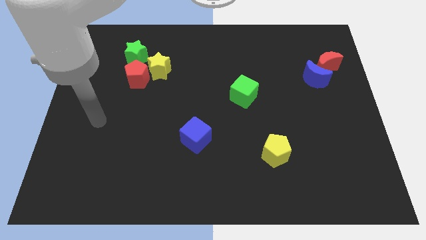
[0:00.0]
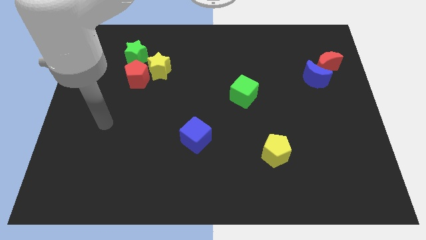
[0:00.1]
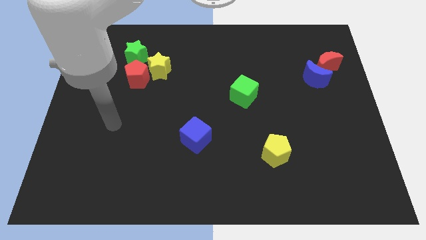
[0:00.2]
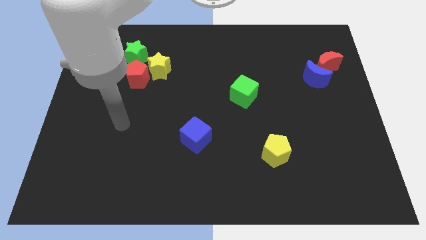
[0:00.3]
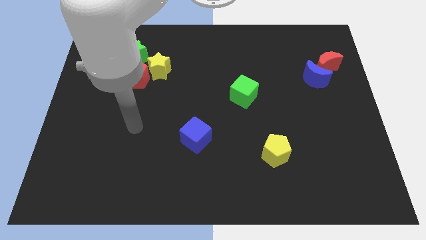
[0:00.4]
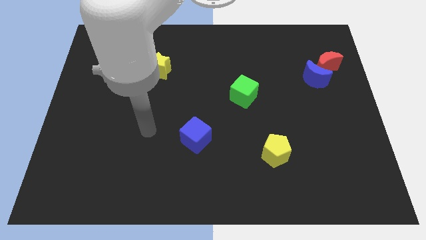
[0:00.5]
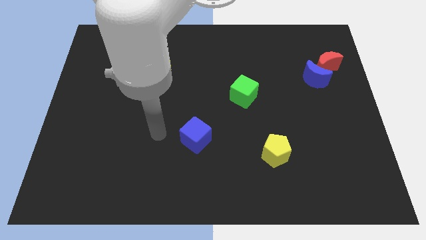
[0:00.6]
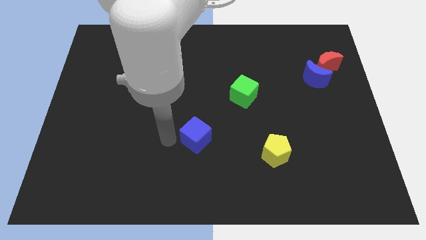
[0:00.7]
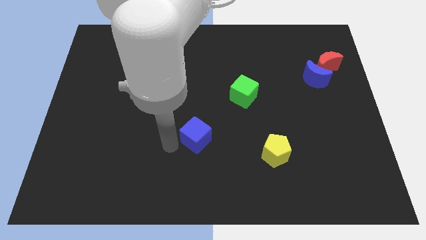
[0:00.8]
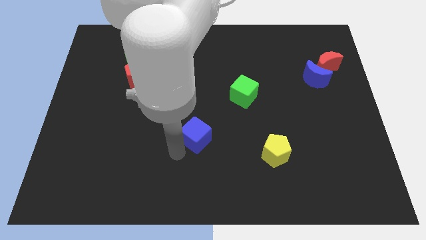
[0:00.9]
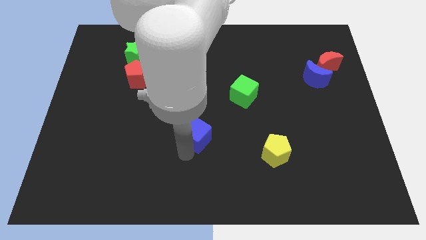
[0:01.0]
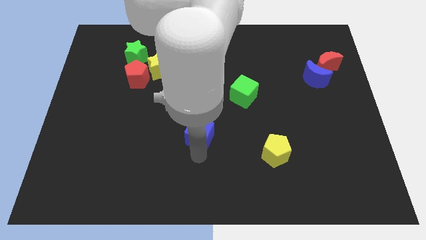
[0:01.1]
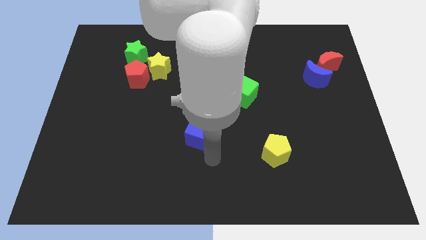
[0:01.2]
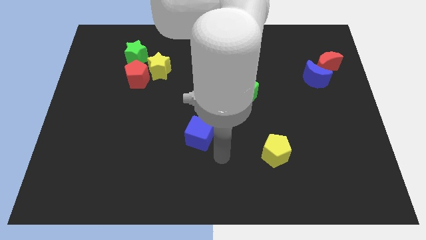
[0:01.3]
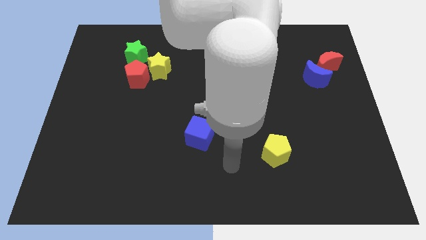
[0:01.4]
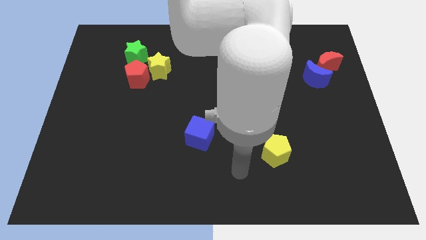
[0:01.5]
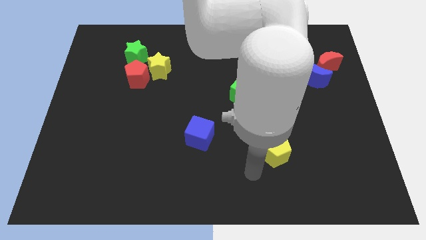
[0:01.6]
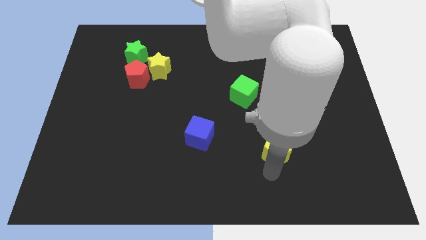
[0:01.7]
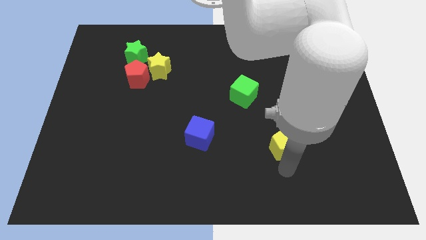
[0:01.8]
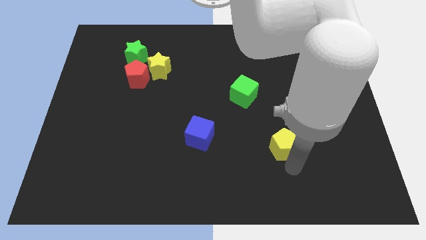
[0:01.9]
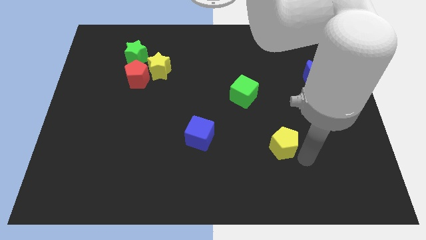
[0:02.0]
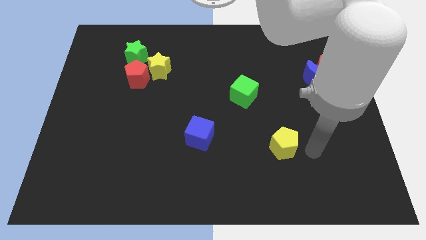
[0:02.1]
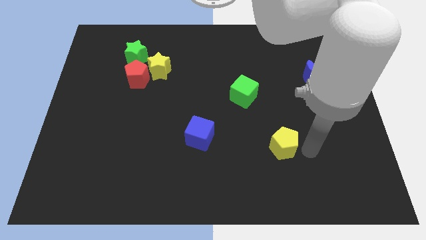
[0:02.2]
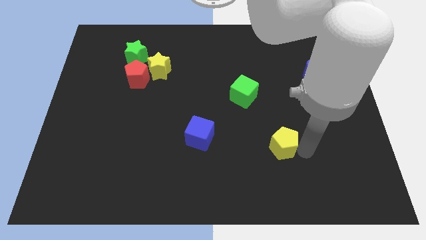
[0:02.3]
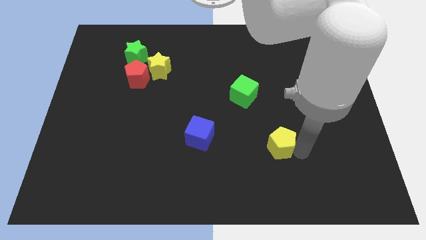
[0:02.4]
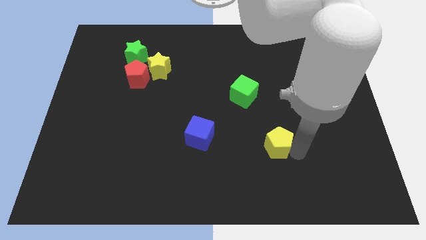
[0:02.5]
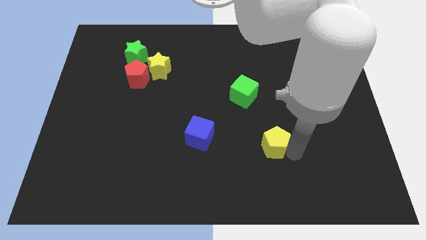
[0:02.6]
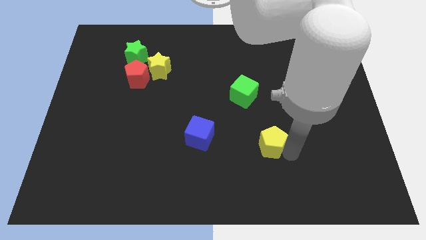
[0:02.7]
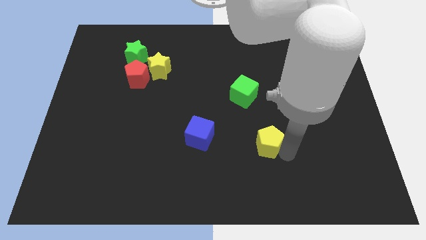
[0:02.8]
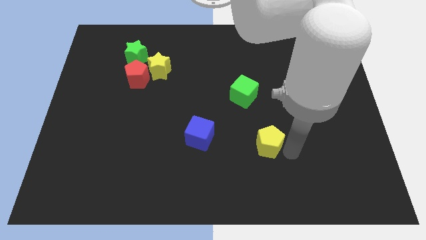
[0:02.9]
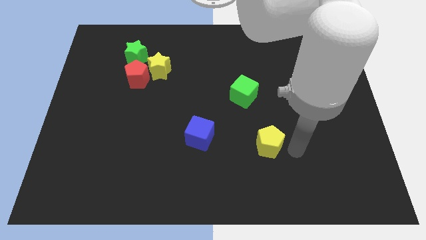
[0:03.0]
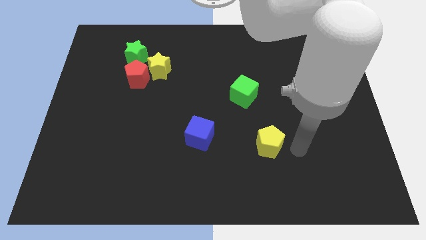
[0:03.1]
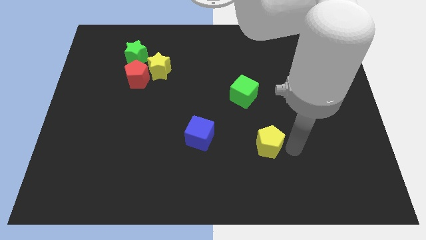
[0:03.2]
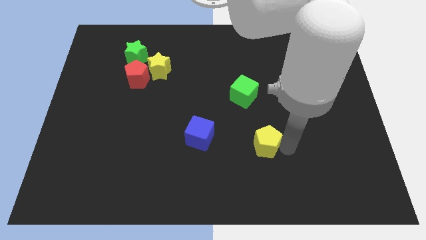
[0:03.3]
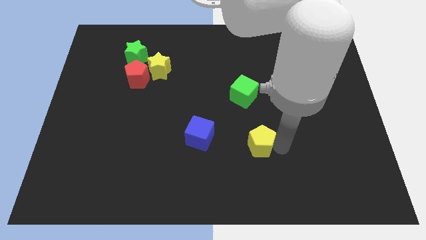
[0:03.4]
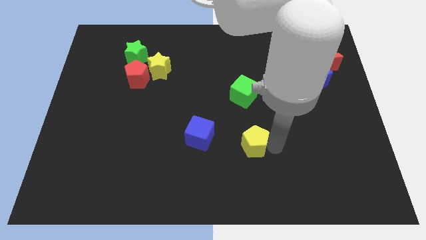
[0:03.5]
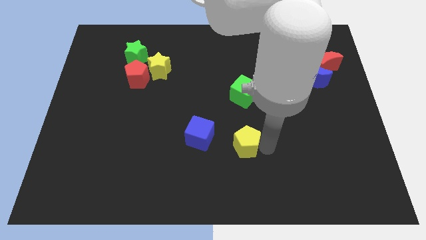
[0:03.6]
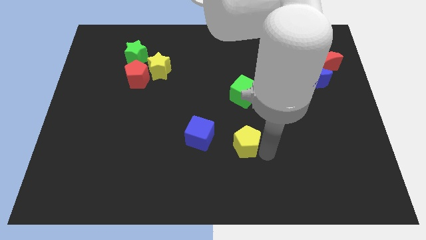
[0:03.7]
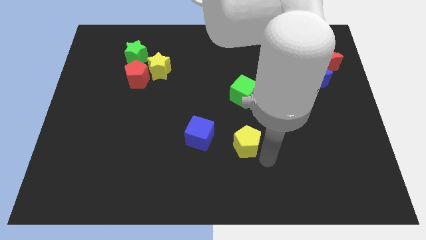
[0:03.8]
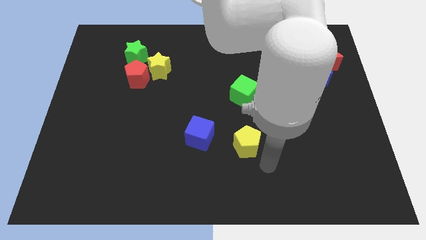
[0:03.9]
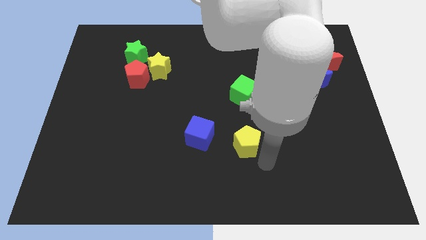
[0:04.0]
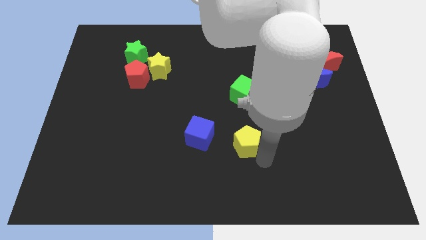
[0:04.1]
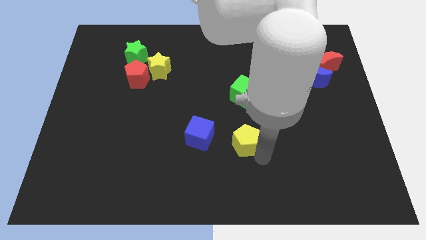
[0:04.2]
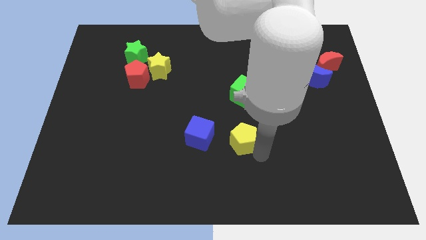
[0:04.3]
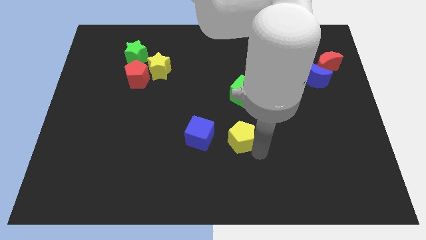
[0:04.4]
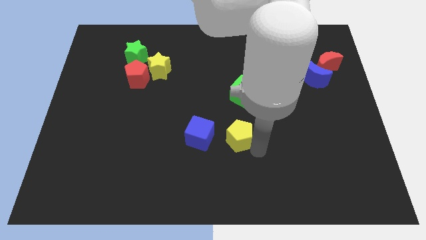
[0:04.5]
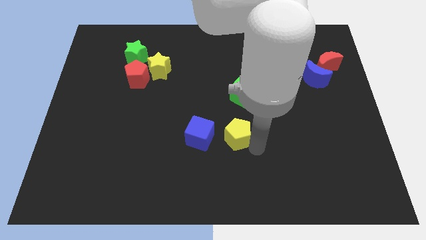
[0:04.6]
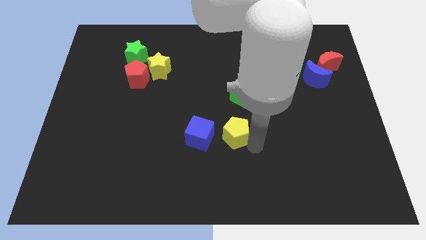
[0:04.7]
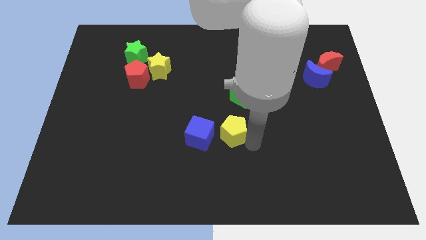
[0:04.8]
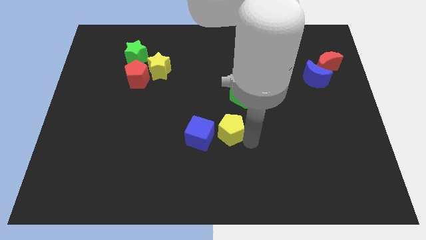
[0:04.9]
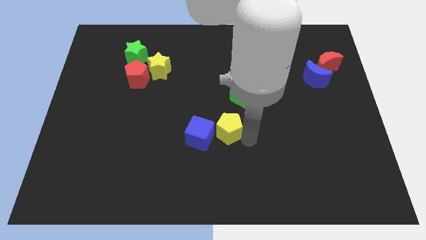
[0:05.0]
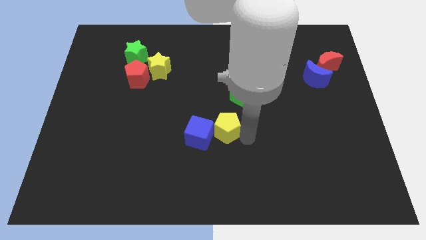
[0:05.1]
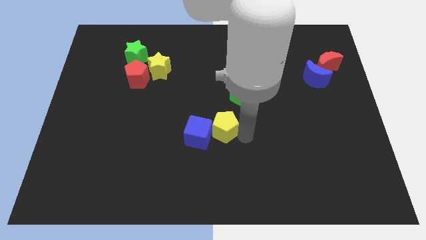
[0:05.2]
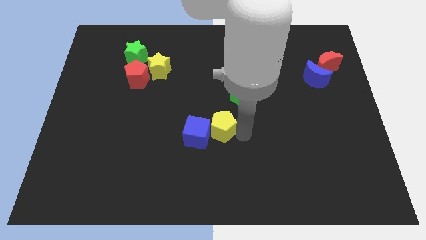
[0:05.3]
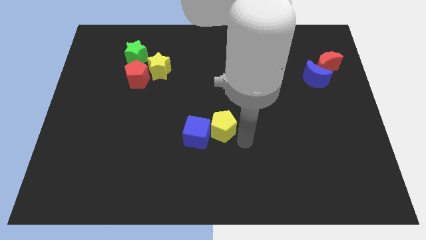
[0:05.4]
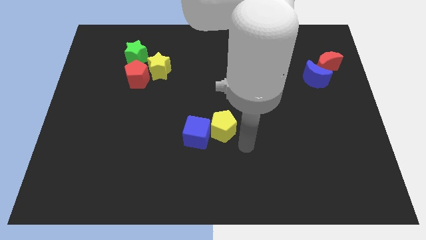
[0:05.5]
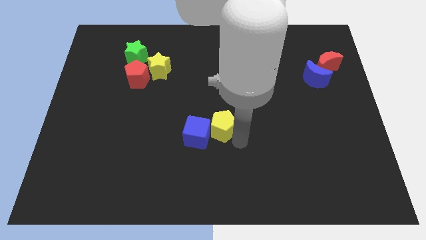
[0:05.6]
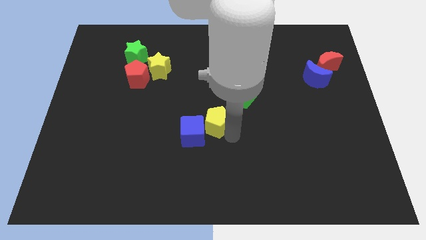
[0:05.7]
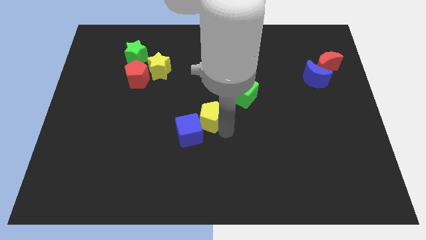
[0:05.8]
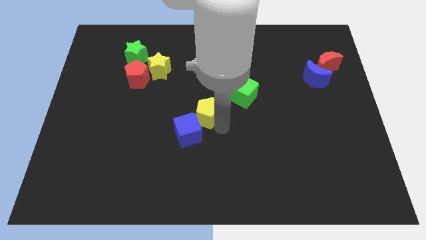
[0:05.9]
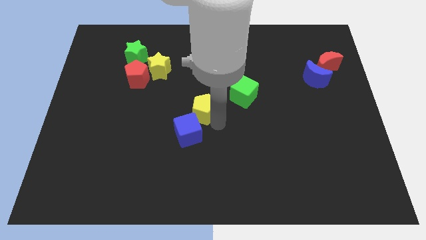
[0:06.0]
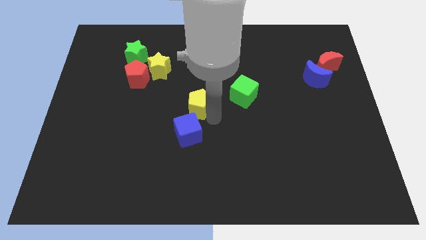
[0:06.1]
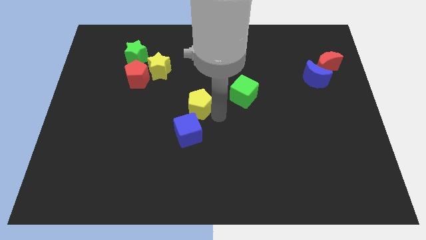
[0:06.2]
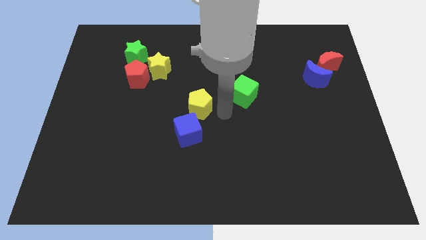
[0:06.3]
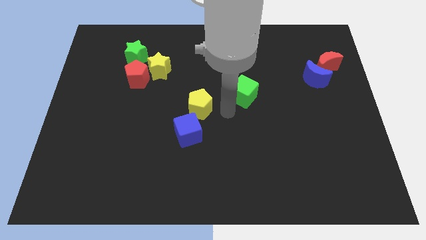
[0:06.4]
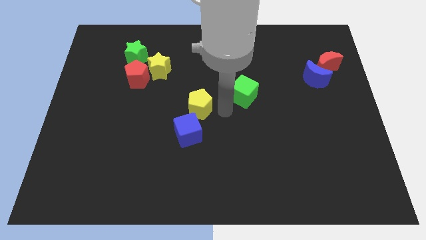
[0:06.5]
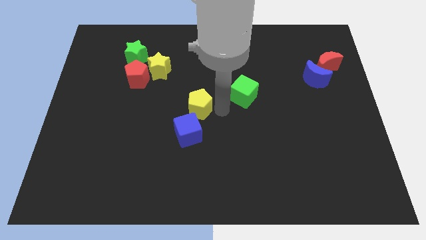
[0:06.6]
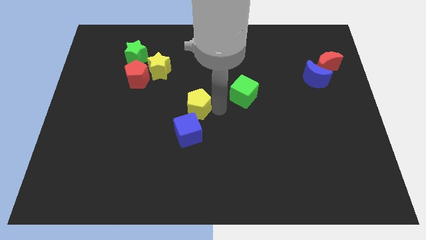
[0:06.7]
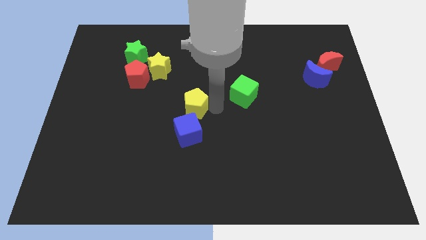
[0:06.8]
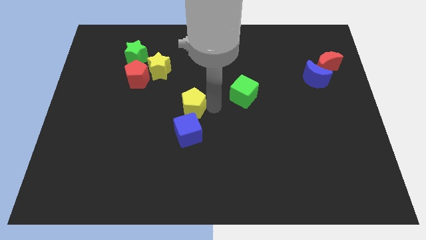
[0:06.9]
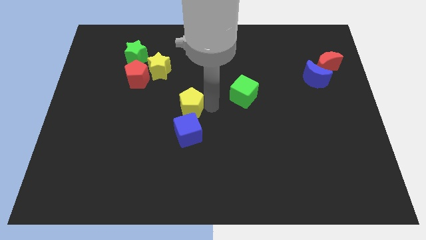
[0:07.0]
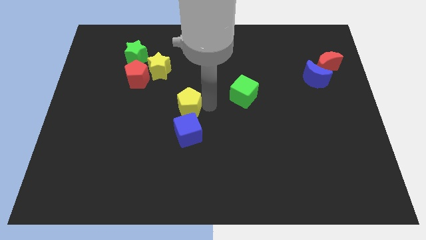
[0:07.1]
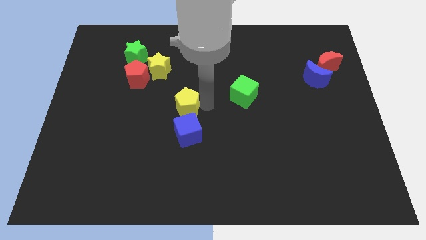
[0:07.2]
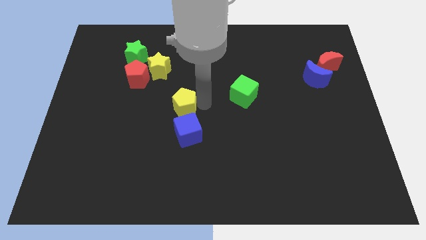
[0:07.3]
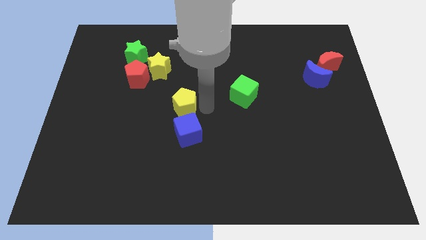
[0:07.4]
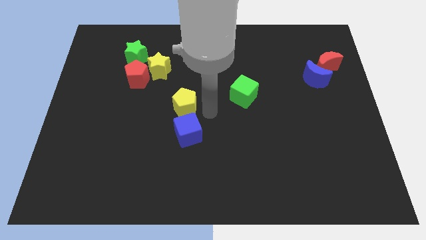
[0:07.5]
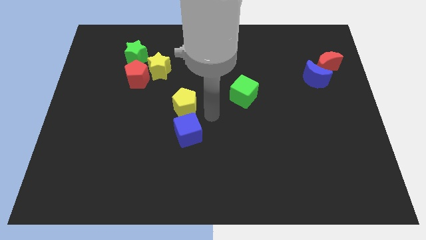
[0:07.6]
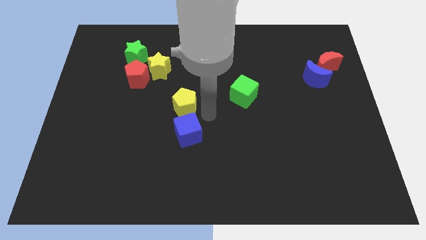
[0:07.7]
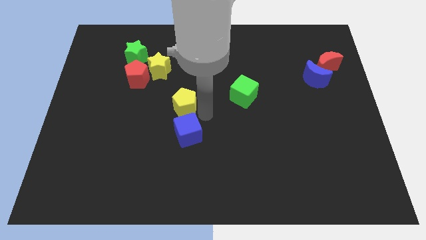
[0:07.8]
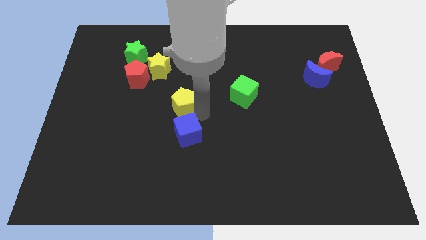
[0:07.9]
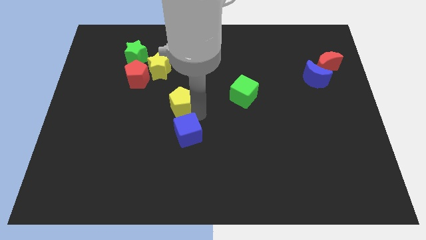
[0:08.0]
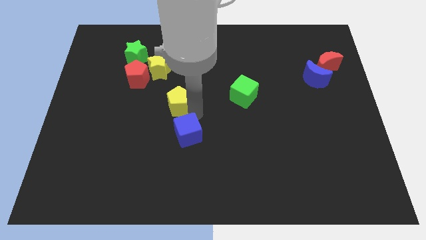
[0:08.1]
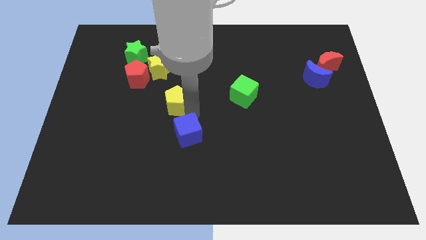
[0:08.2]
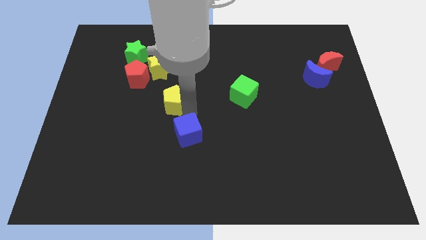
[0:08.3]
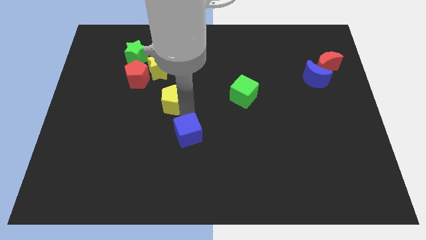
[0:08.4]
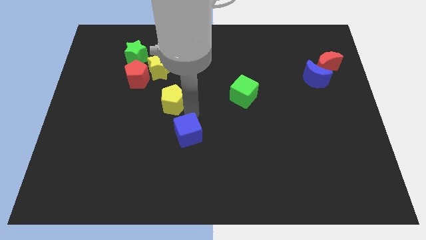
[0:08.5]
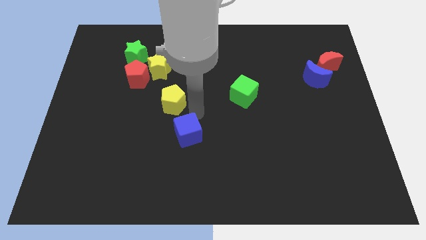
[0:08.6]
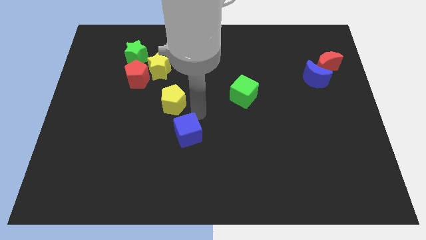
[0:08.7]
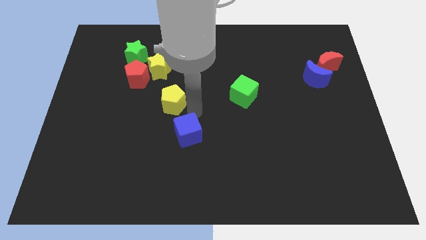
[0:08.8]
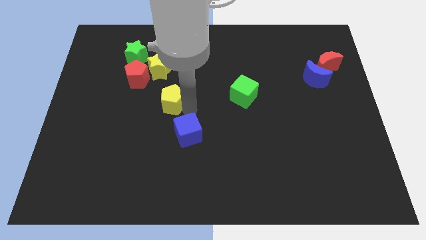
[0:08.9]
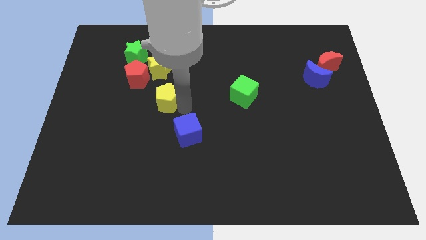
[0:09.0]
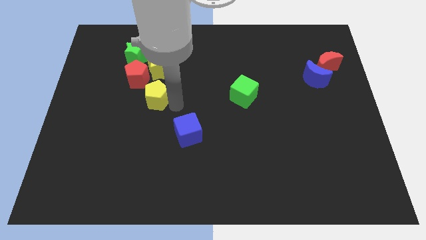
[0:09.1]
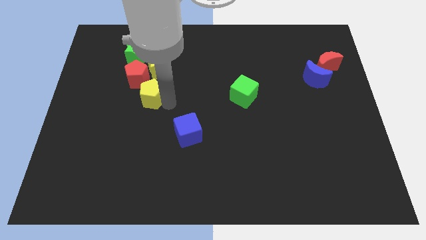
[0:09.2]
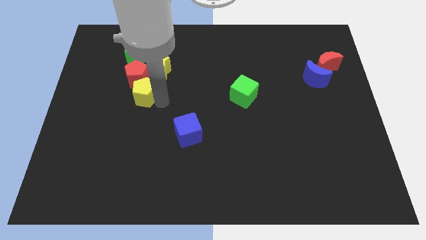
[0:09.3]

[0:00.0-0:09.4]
slide the yellow pentagon diagonally down and to the left of the yellow star
